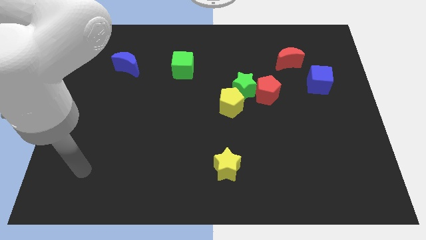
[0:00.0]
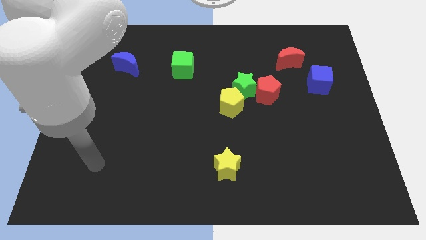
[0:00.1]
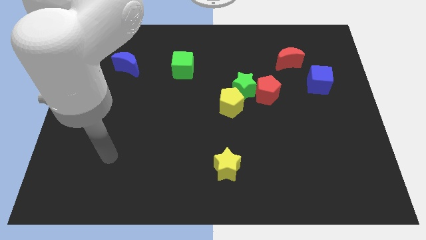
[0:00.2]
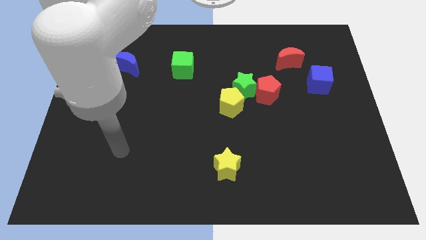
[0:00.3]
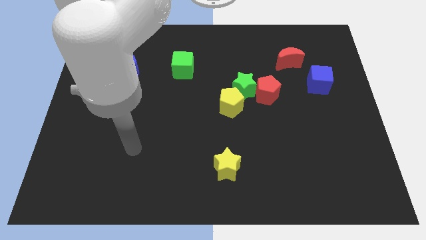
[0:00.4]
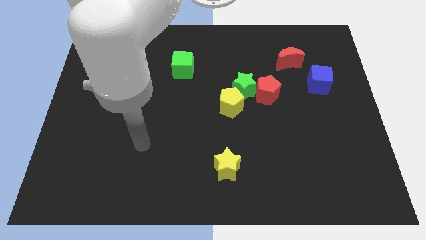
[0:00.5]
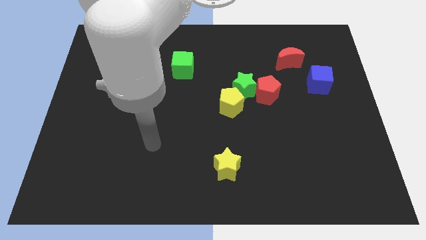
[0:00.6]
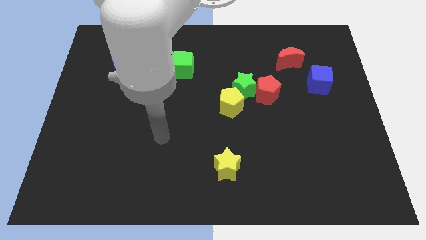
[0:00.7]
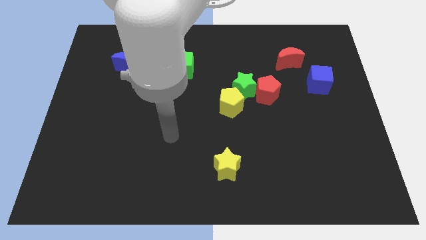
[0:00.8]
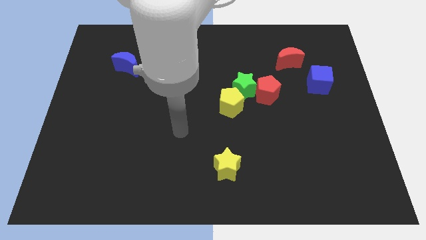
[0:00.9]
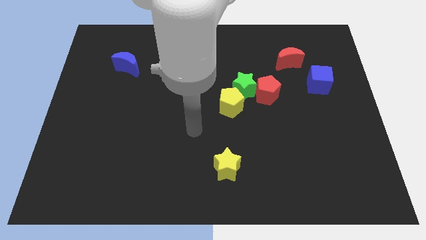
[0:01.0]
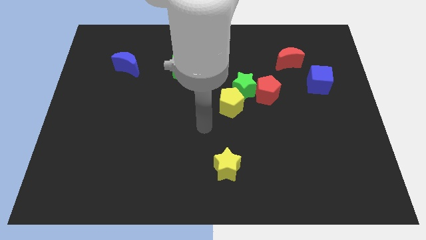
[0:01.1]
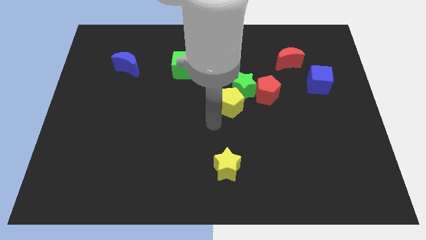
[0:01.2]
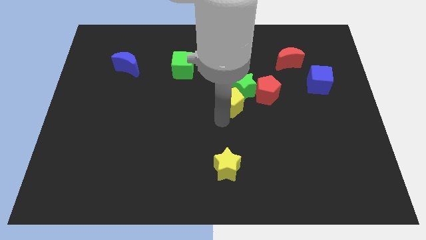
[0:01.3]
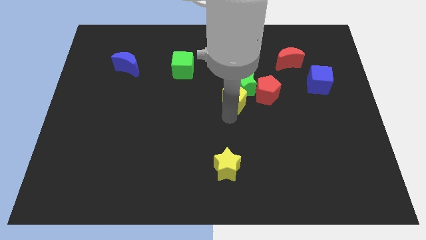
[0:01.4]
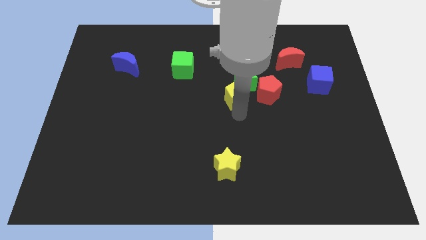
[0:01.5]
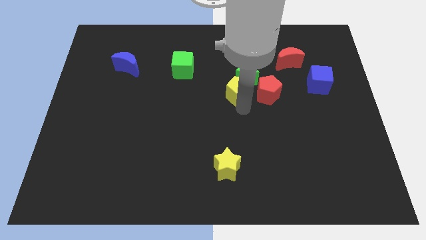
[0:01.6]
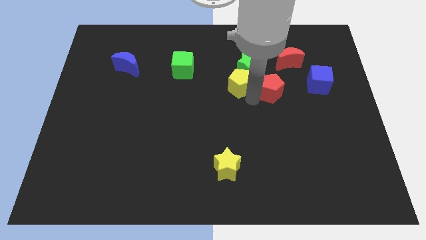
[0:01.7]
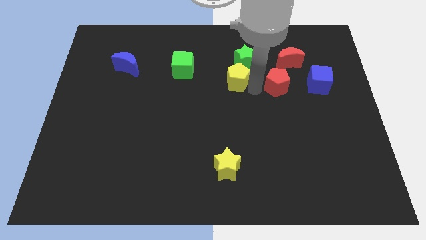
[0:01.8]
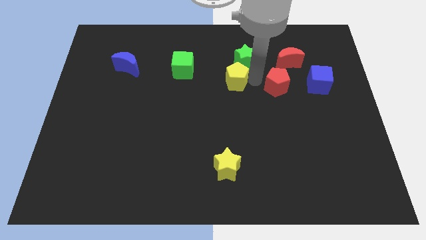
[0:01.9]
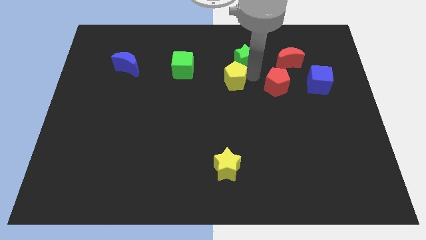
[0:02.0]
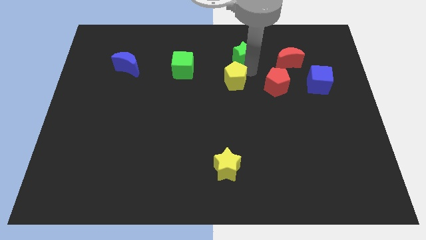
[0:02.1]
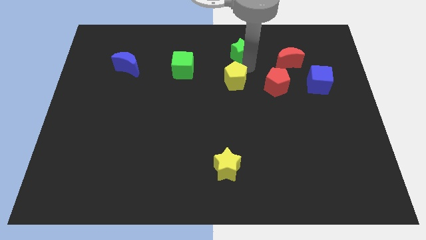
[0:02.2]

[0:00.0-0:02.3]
move the green star away from the red pentagon and yellow pentagon

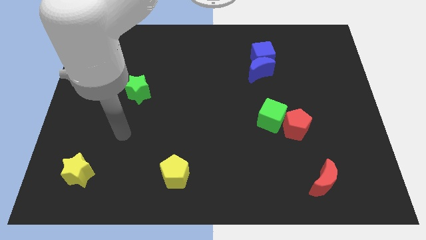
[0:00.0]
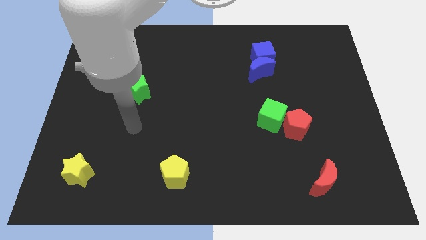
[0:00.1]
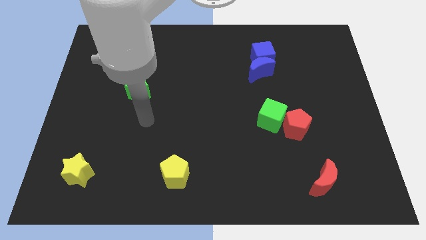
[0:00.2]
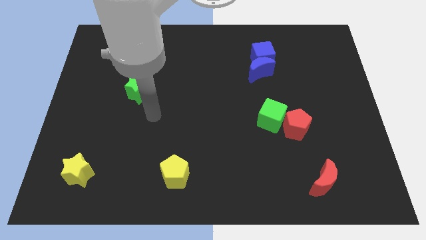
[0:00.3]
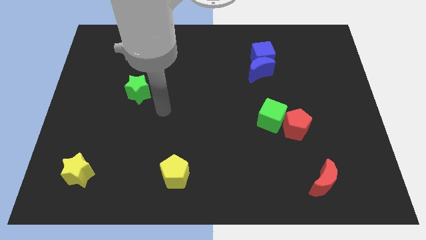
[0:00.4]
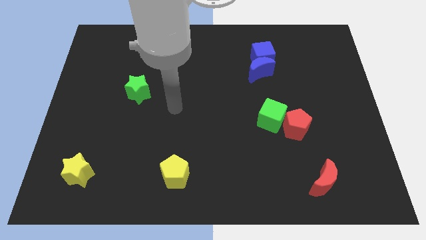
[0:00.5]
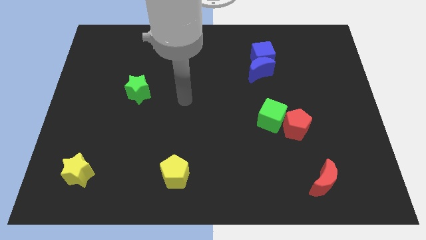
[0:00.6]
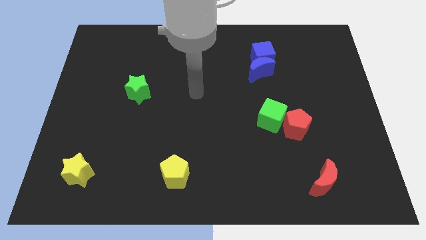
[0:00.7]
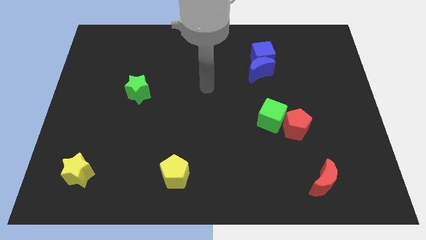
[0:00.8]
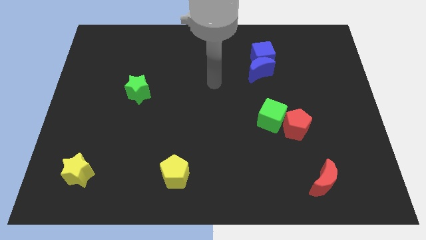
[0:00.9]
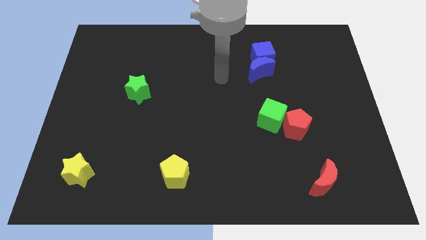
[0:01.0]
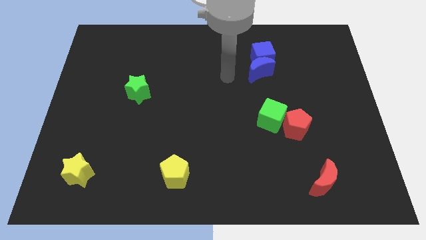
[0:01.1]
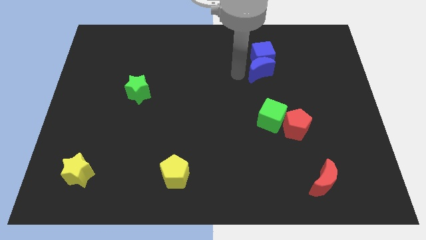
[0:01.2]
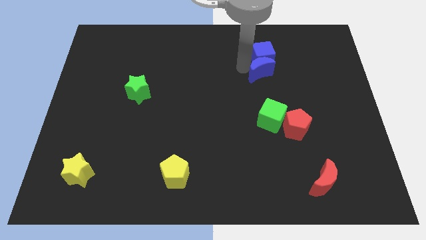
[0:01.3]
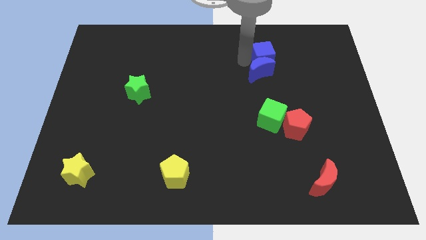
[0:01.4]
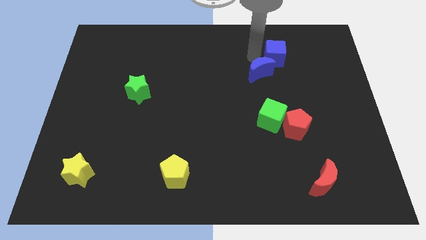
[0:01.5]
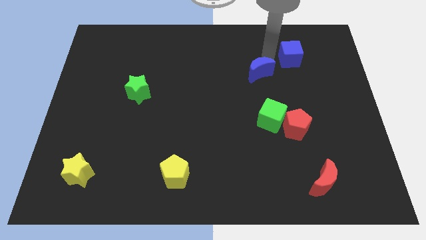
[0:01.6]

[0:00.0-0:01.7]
move the blue moon away from the blue cube

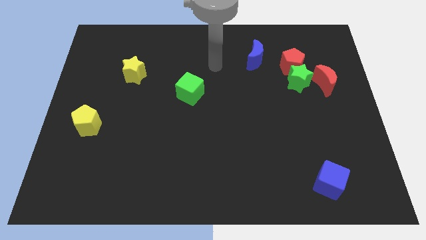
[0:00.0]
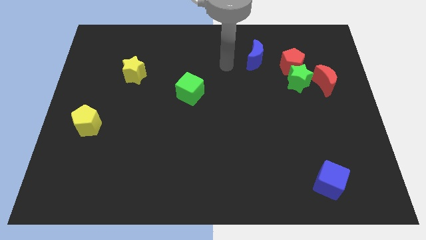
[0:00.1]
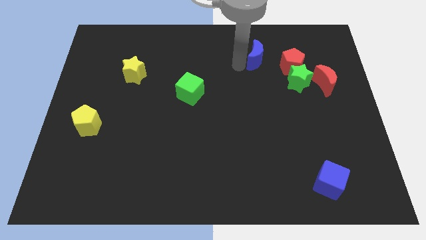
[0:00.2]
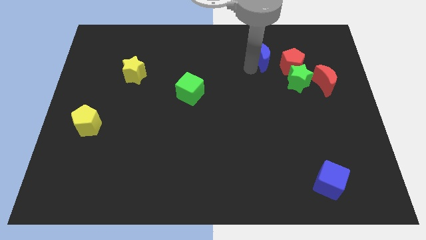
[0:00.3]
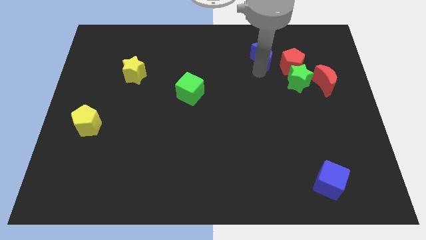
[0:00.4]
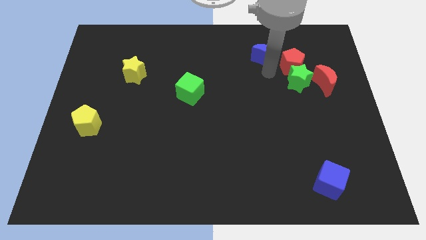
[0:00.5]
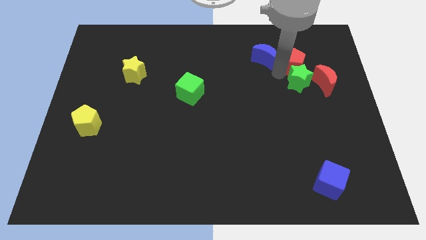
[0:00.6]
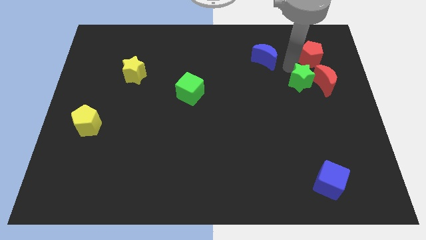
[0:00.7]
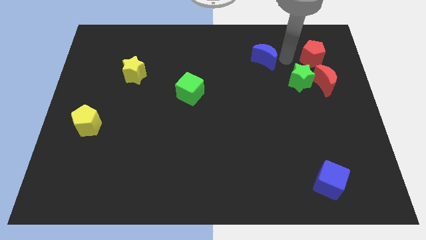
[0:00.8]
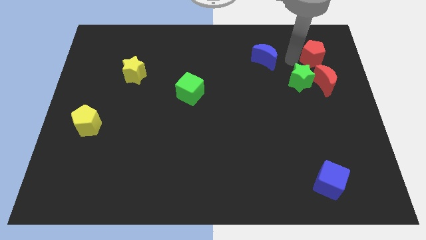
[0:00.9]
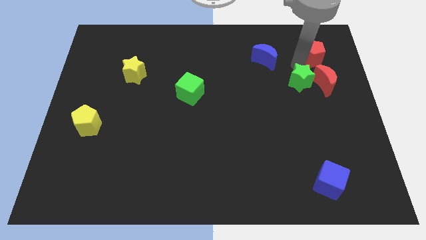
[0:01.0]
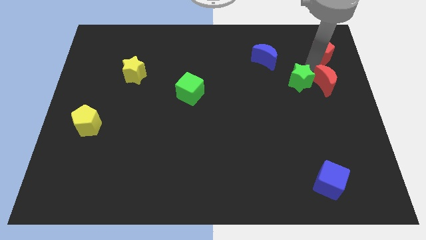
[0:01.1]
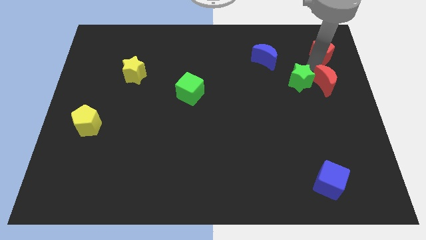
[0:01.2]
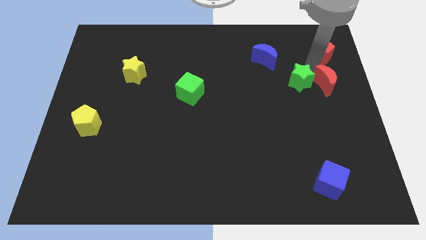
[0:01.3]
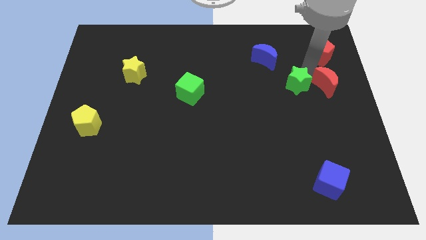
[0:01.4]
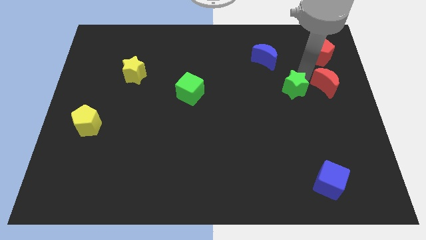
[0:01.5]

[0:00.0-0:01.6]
separate the green star from the red pentagon and red moon

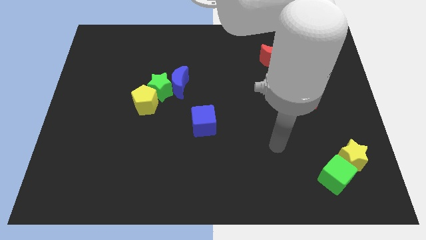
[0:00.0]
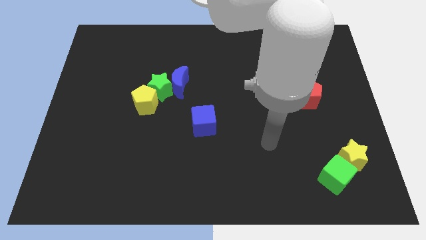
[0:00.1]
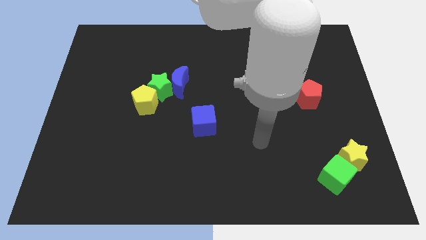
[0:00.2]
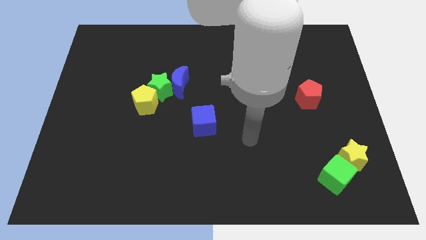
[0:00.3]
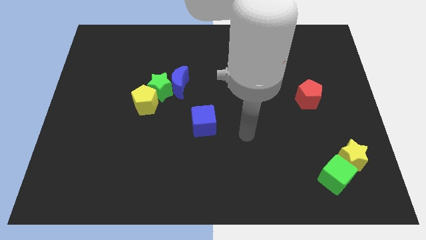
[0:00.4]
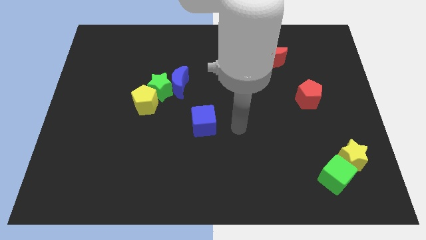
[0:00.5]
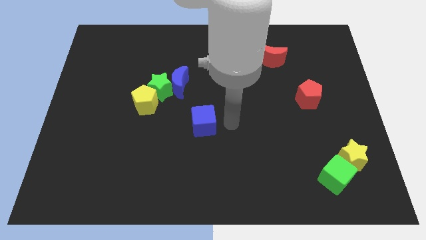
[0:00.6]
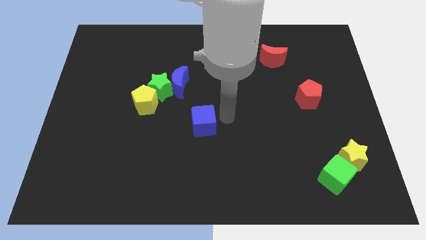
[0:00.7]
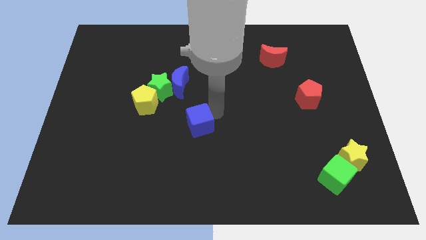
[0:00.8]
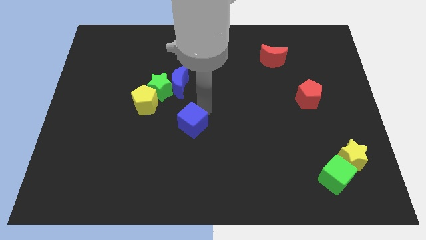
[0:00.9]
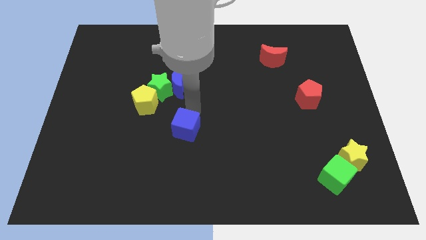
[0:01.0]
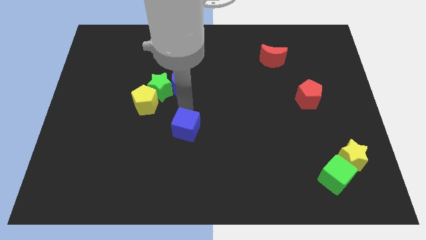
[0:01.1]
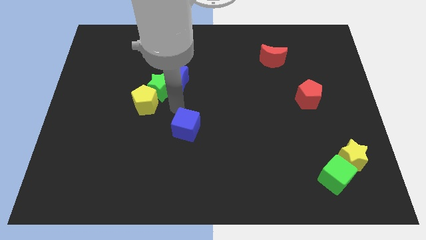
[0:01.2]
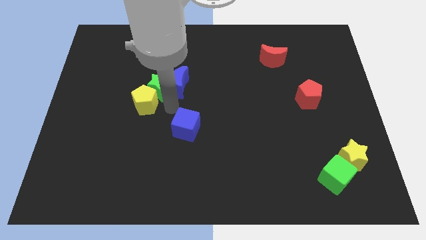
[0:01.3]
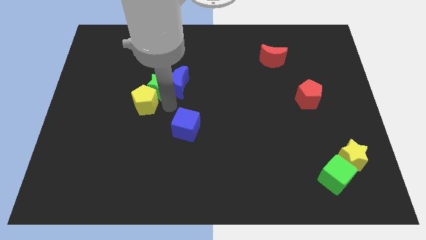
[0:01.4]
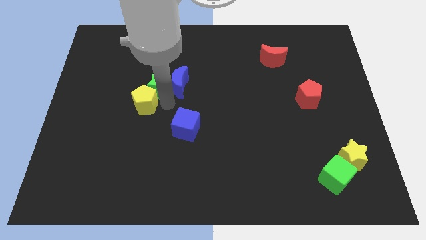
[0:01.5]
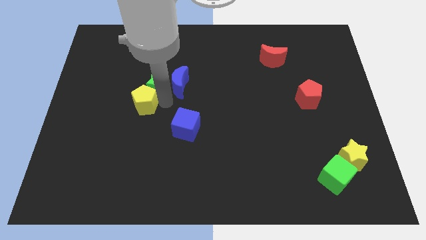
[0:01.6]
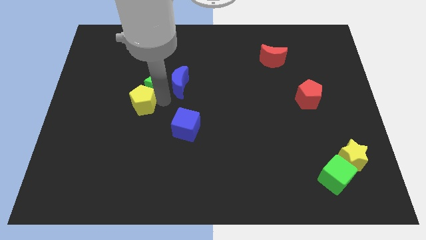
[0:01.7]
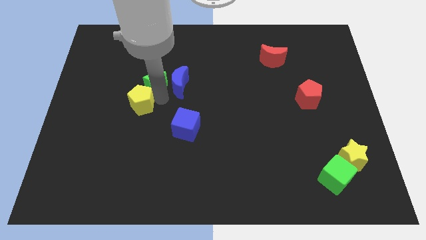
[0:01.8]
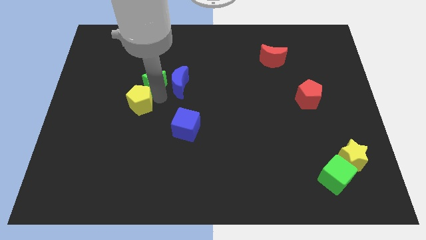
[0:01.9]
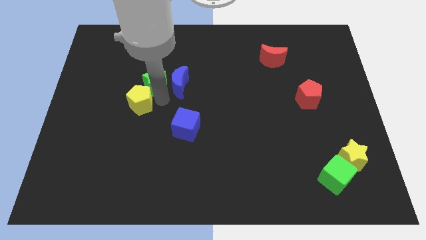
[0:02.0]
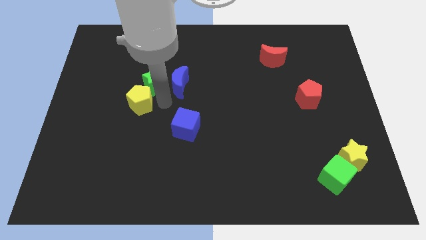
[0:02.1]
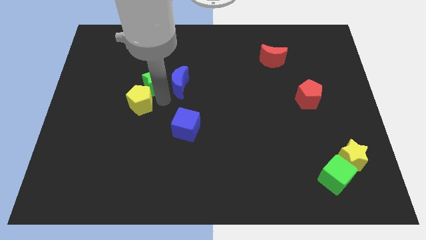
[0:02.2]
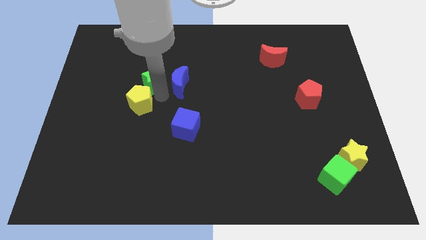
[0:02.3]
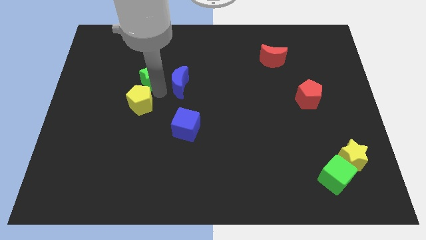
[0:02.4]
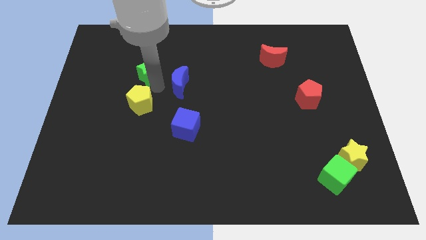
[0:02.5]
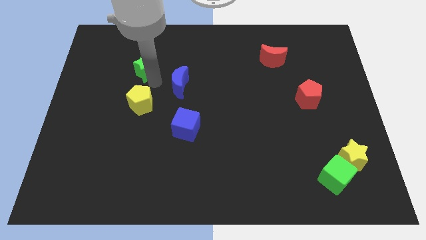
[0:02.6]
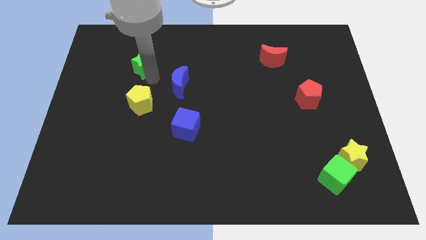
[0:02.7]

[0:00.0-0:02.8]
pull the green star apart from the blue moon and yellow pentagon

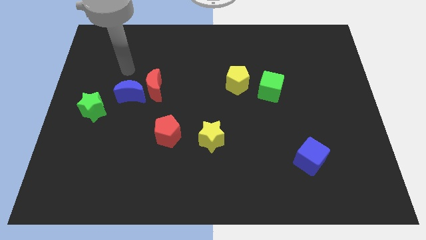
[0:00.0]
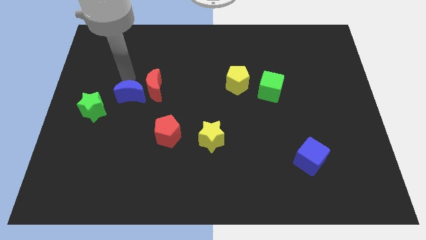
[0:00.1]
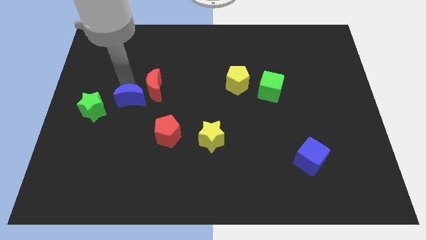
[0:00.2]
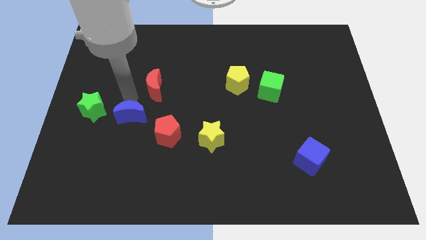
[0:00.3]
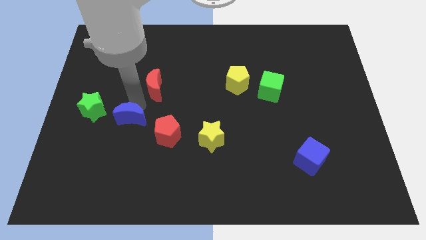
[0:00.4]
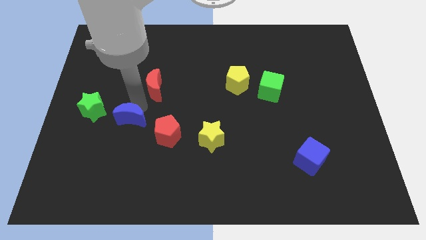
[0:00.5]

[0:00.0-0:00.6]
separate the red moon from the blue moon

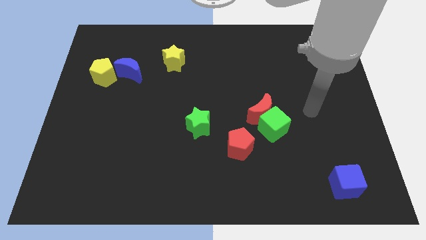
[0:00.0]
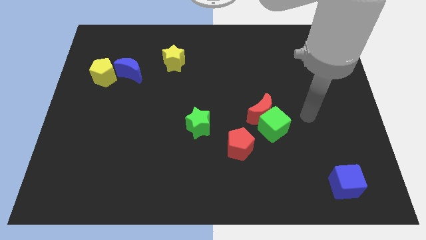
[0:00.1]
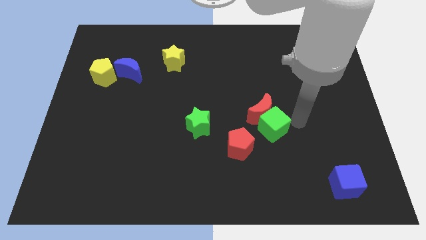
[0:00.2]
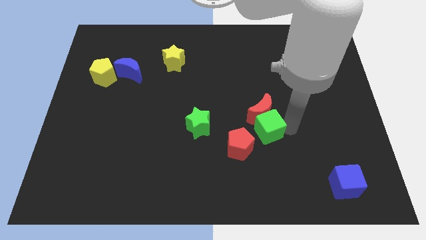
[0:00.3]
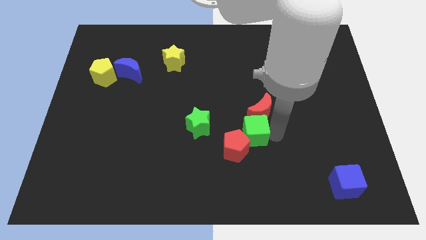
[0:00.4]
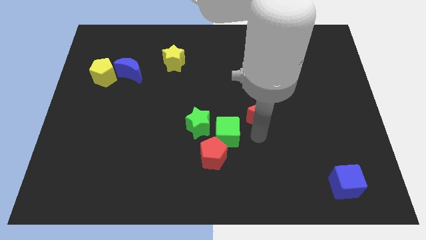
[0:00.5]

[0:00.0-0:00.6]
pull the red moon apart from the green cube
